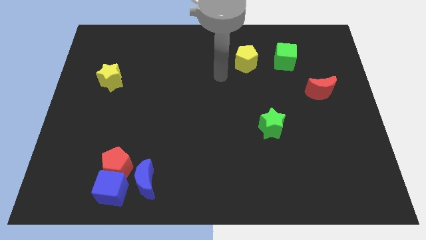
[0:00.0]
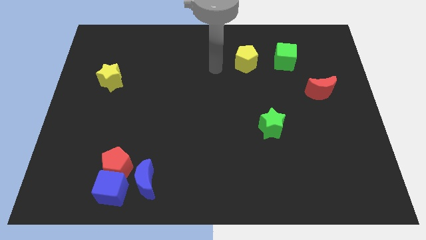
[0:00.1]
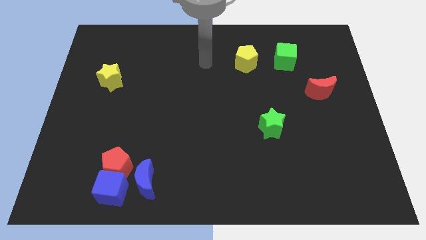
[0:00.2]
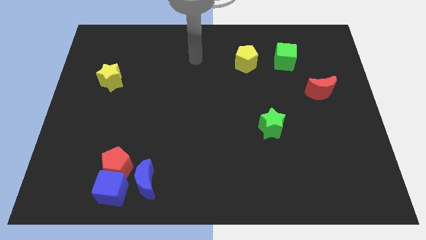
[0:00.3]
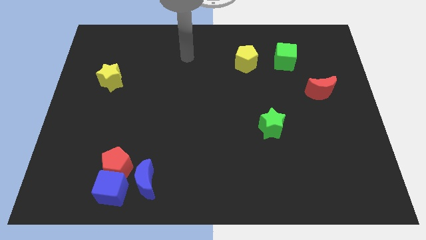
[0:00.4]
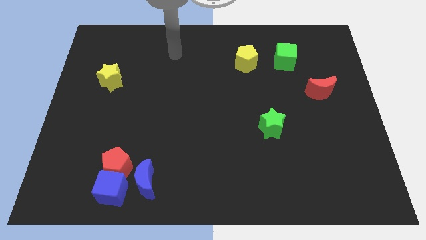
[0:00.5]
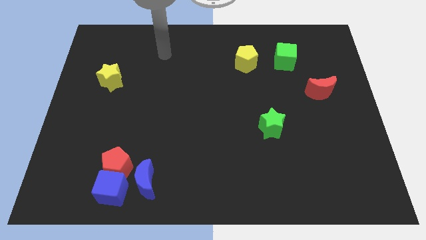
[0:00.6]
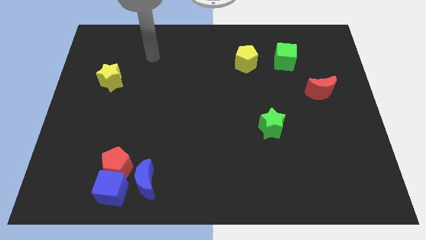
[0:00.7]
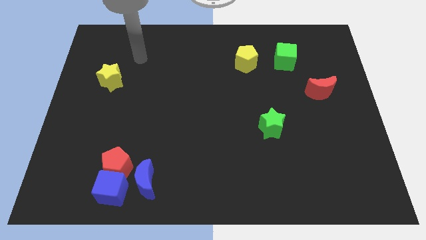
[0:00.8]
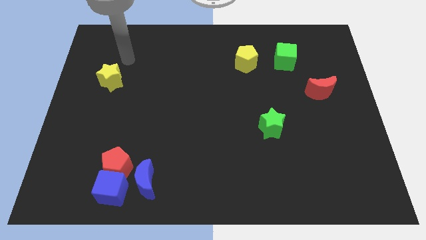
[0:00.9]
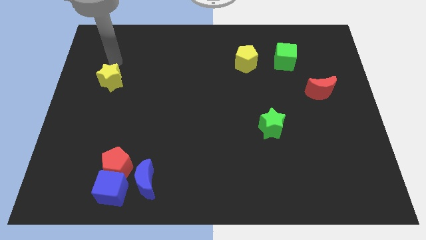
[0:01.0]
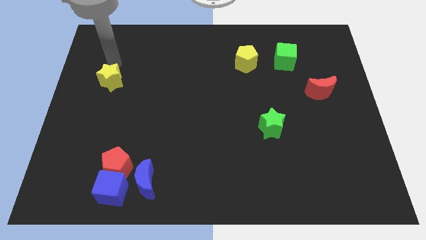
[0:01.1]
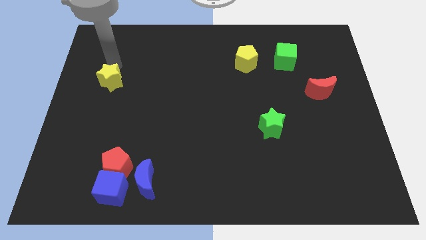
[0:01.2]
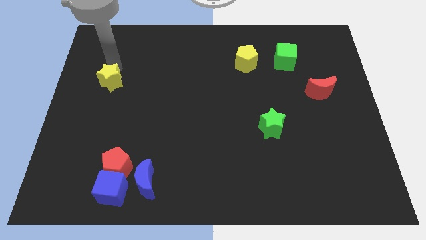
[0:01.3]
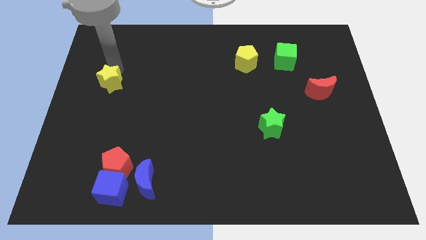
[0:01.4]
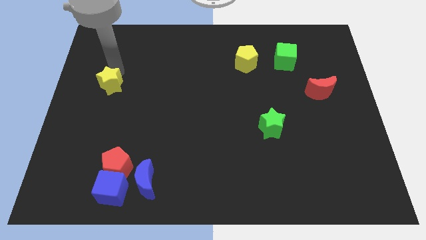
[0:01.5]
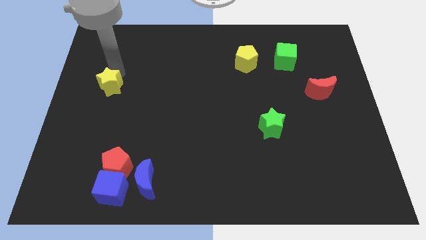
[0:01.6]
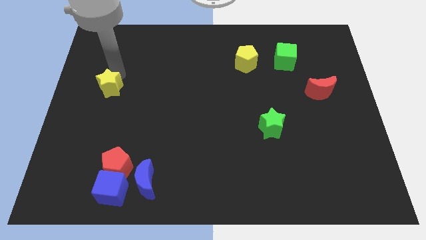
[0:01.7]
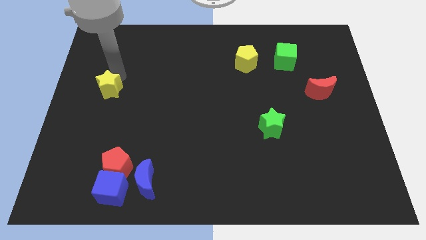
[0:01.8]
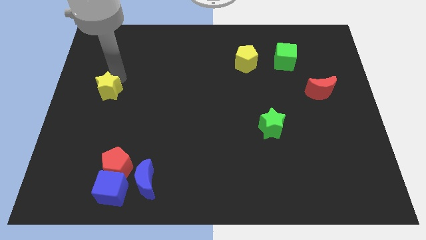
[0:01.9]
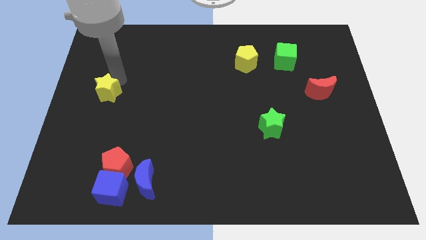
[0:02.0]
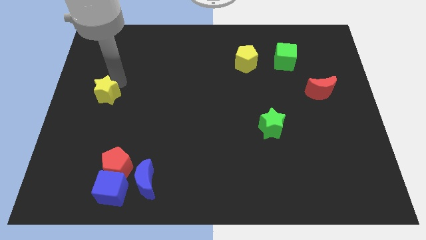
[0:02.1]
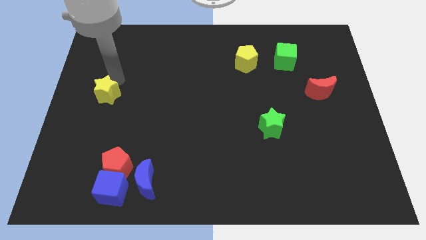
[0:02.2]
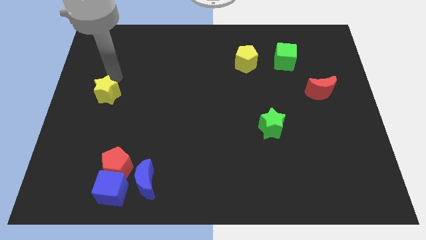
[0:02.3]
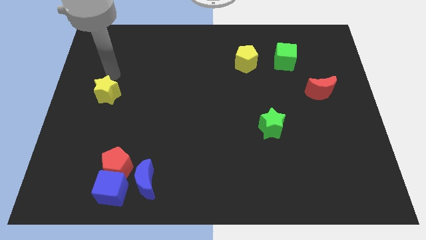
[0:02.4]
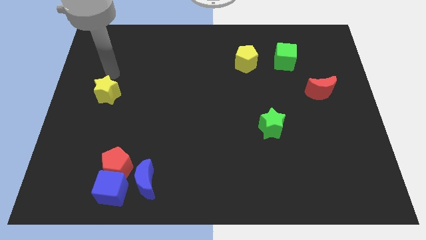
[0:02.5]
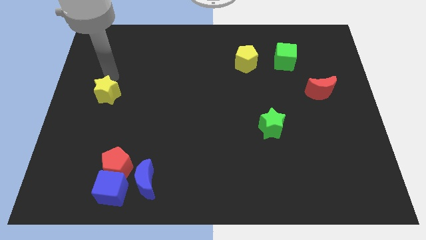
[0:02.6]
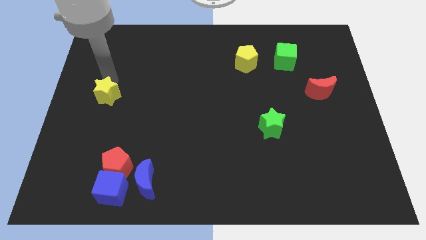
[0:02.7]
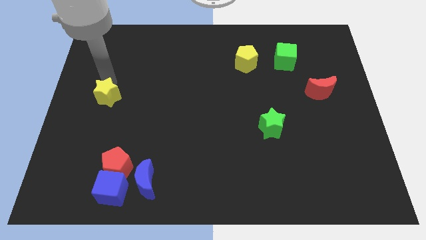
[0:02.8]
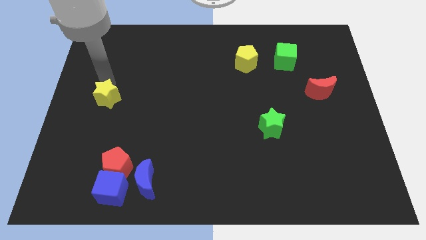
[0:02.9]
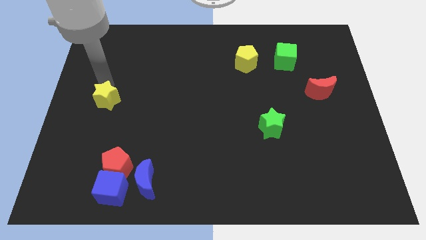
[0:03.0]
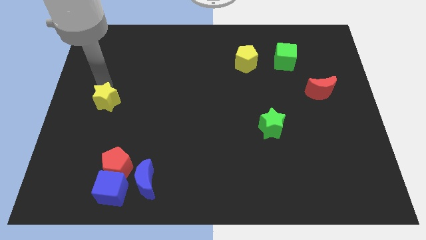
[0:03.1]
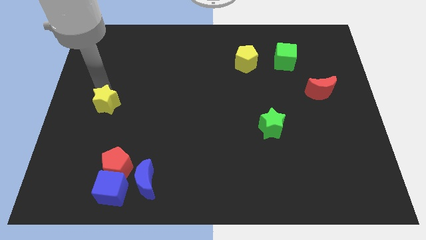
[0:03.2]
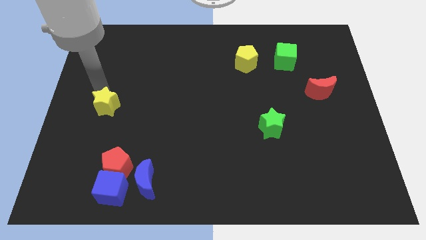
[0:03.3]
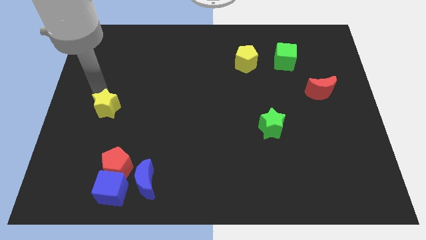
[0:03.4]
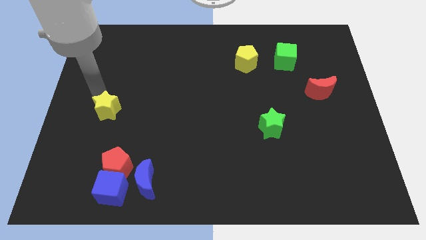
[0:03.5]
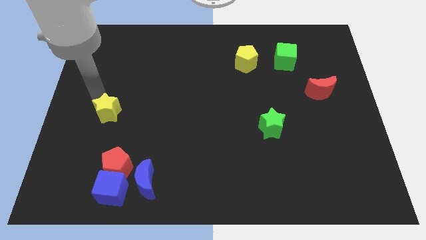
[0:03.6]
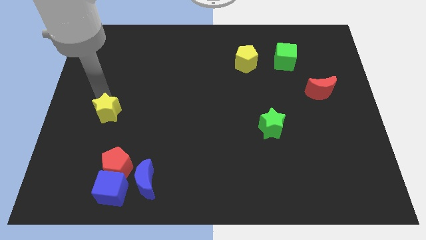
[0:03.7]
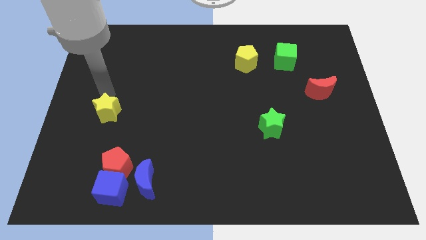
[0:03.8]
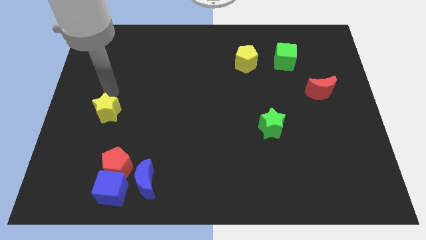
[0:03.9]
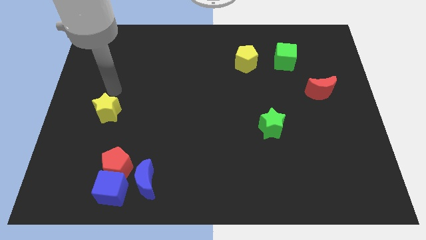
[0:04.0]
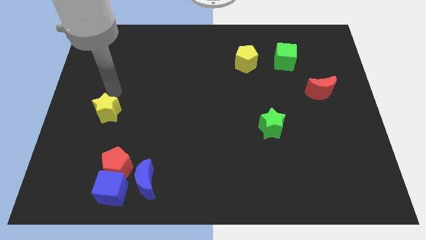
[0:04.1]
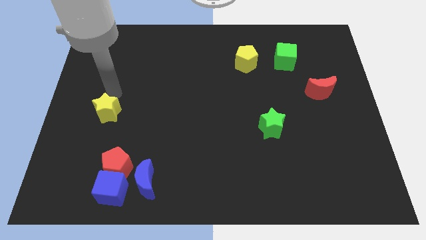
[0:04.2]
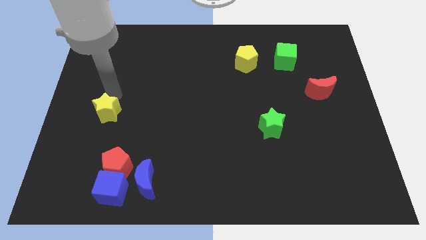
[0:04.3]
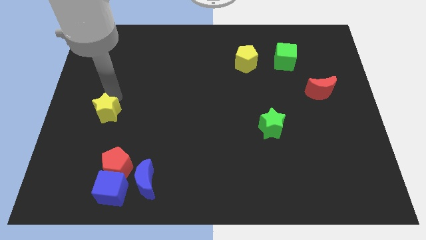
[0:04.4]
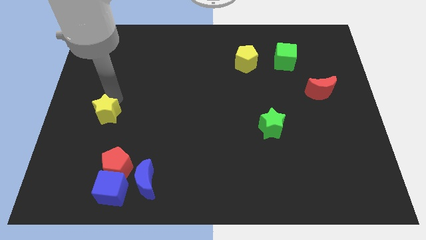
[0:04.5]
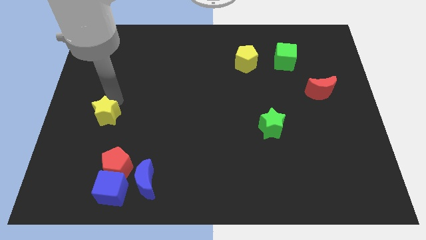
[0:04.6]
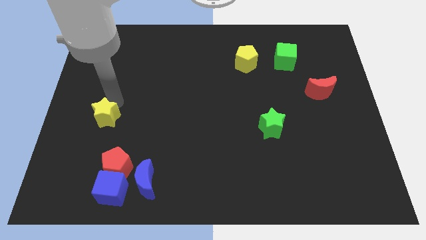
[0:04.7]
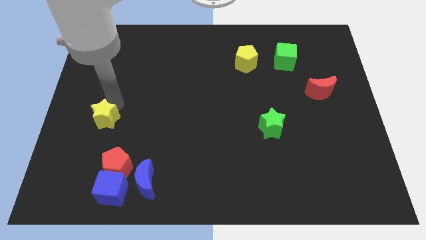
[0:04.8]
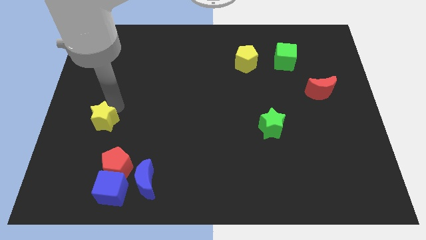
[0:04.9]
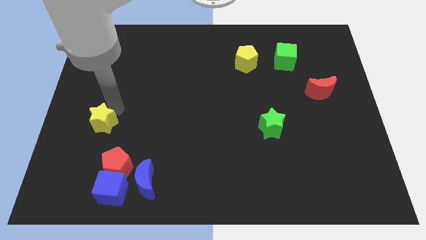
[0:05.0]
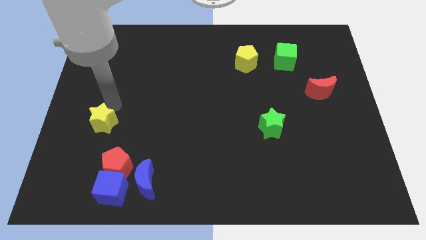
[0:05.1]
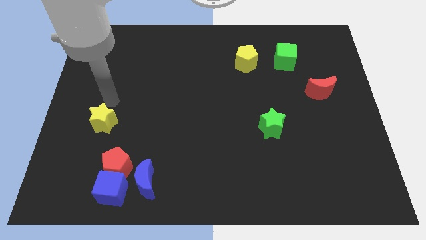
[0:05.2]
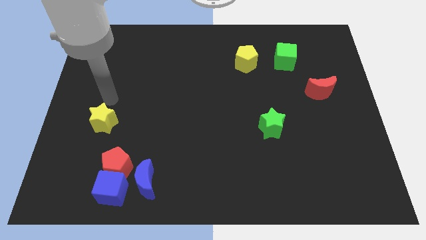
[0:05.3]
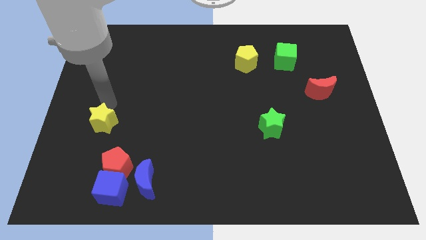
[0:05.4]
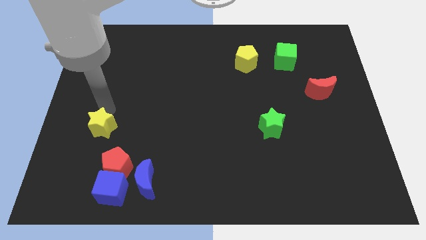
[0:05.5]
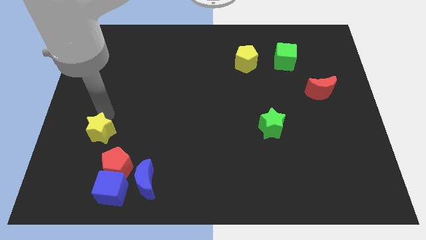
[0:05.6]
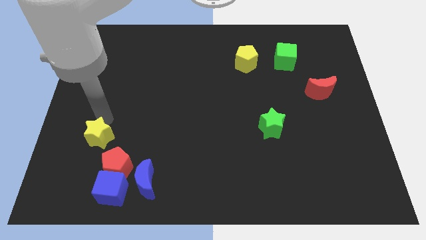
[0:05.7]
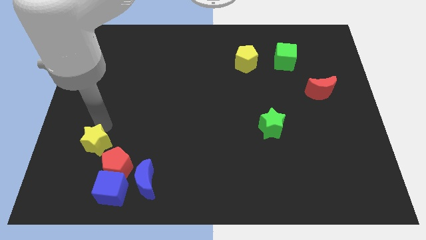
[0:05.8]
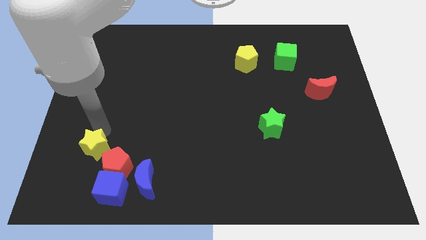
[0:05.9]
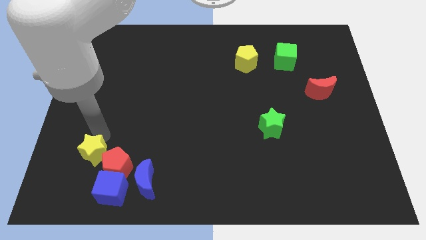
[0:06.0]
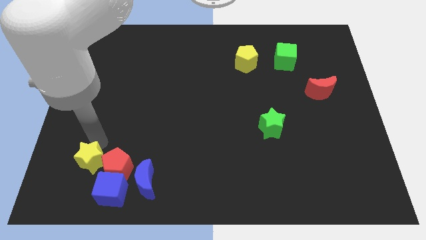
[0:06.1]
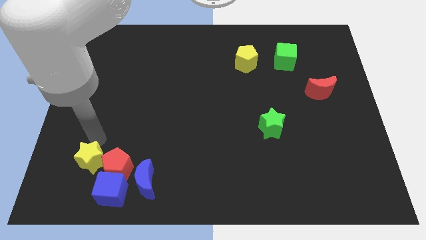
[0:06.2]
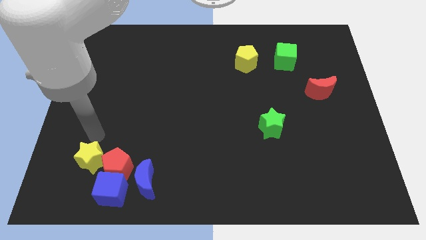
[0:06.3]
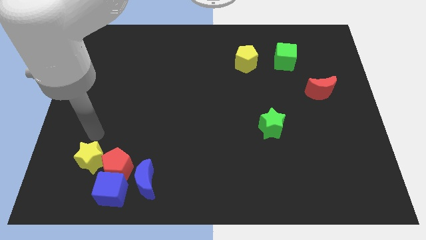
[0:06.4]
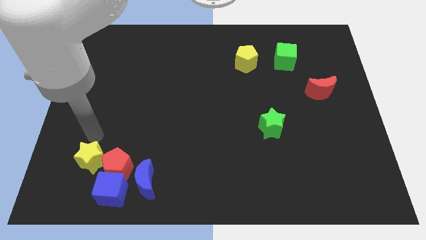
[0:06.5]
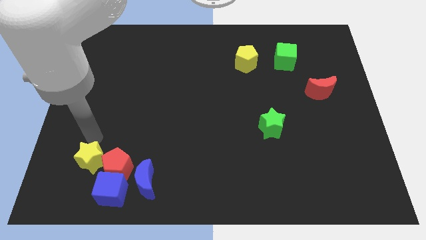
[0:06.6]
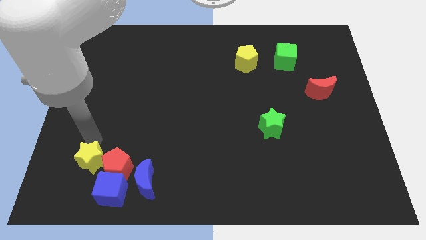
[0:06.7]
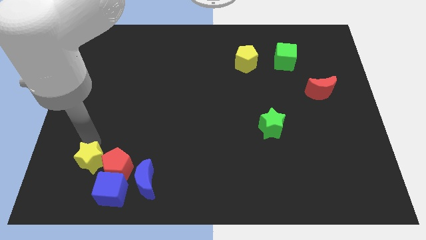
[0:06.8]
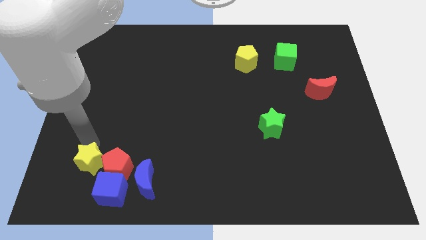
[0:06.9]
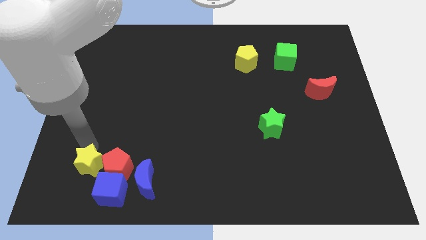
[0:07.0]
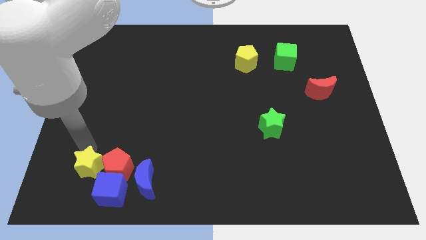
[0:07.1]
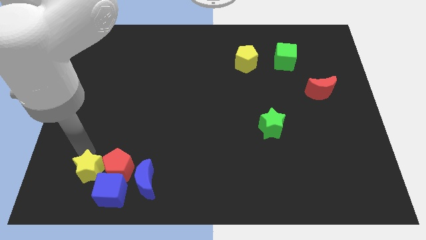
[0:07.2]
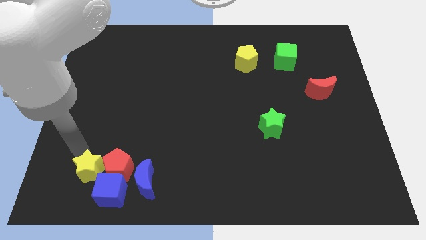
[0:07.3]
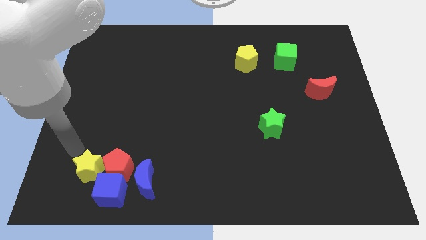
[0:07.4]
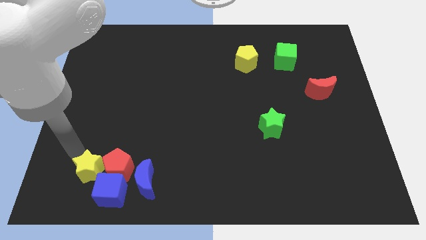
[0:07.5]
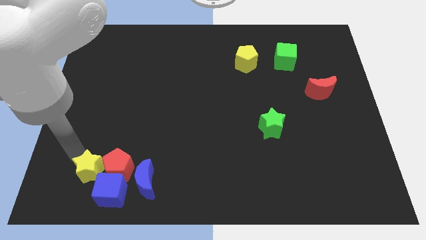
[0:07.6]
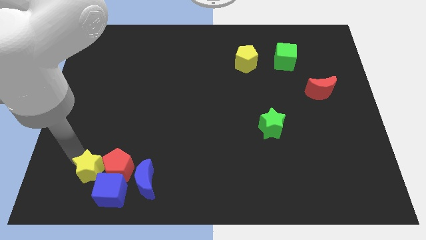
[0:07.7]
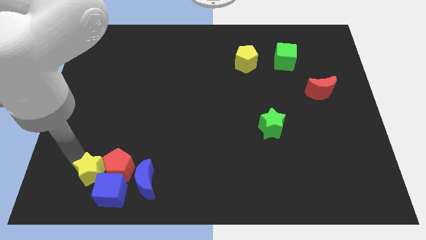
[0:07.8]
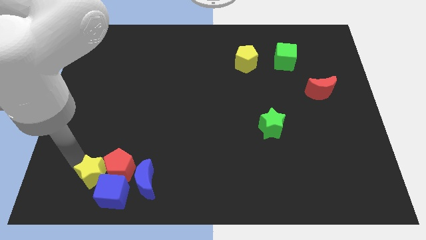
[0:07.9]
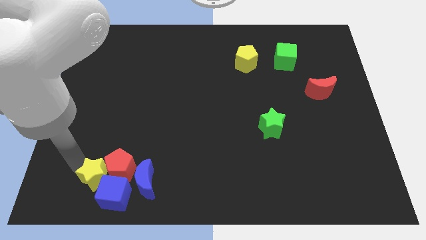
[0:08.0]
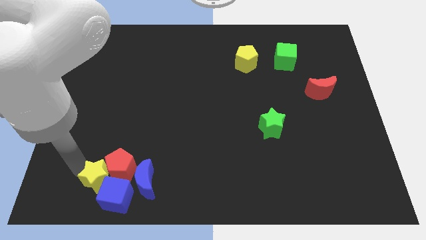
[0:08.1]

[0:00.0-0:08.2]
move the yellow star next to the blue cube

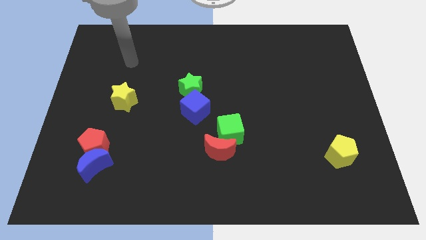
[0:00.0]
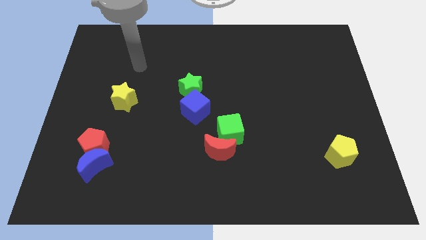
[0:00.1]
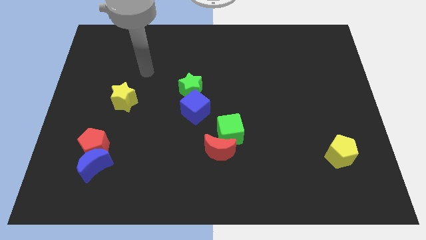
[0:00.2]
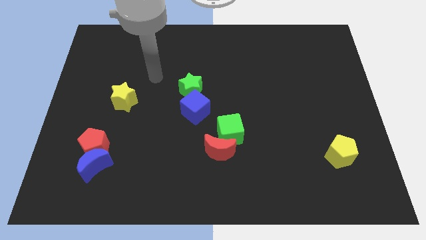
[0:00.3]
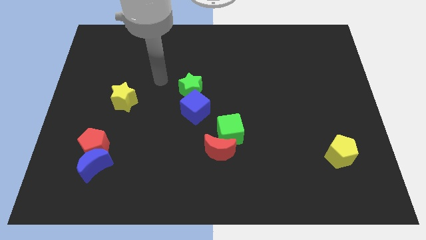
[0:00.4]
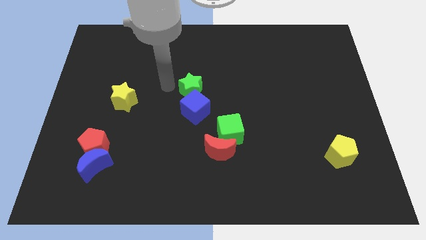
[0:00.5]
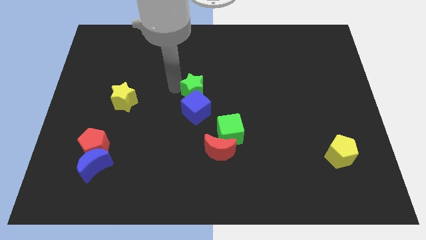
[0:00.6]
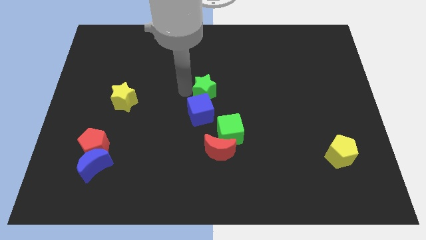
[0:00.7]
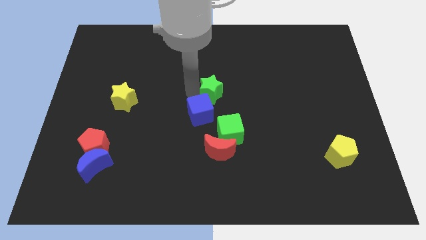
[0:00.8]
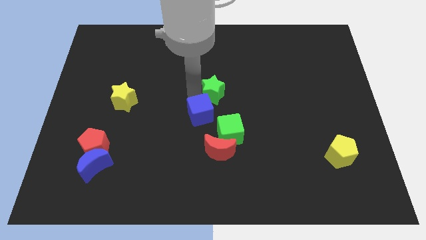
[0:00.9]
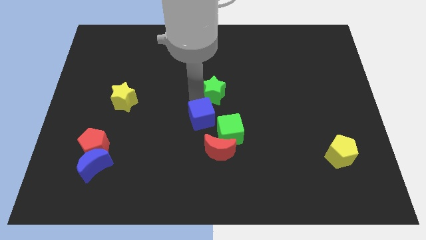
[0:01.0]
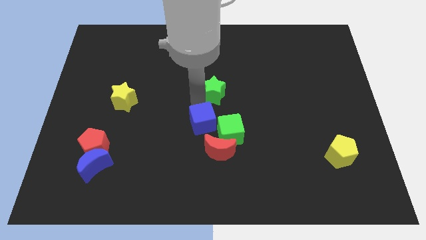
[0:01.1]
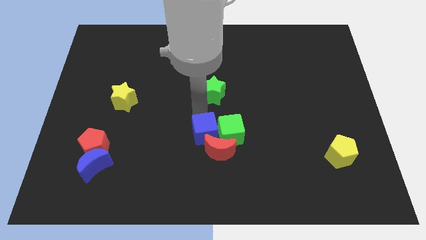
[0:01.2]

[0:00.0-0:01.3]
slide the blue cube towards the red moon
